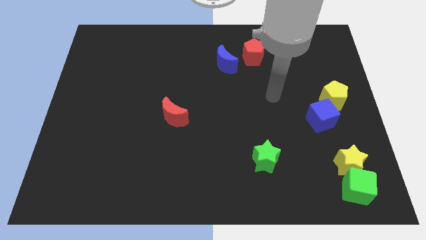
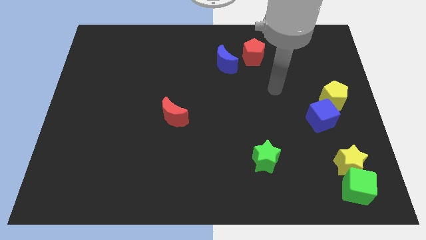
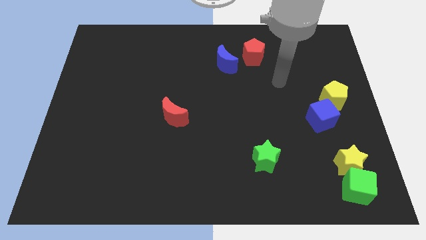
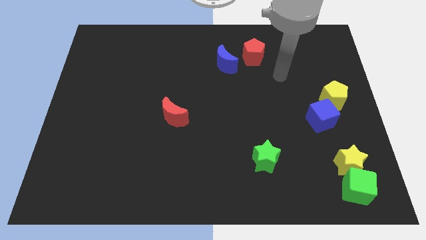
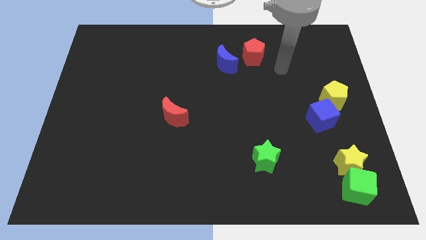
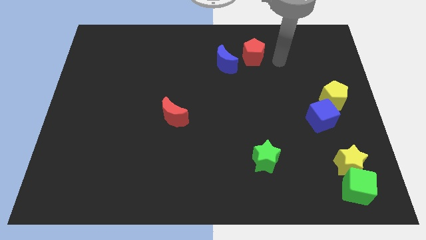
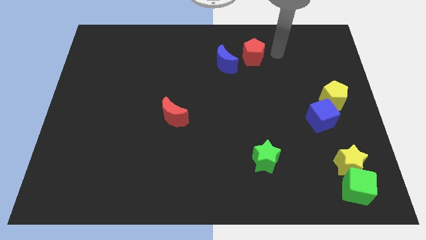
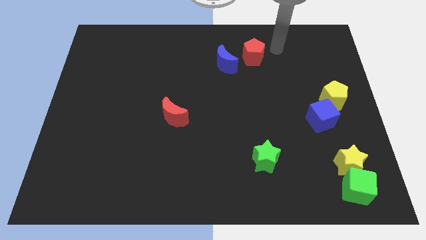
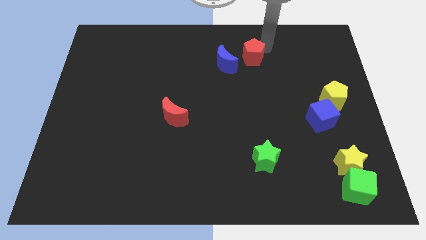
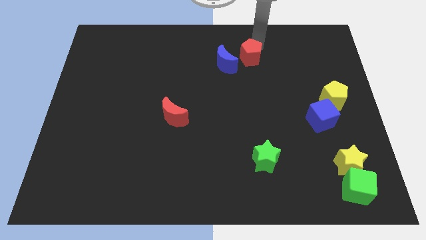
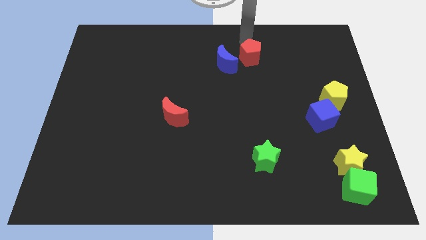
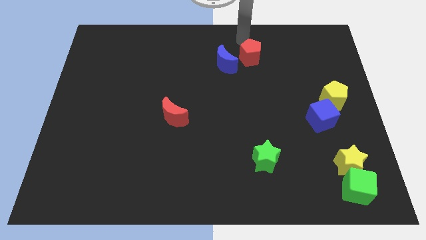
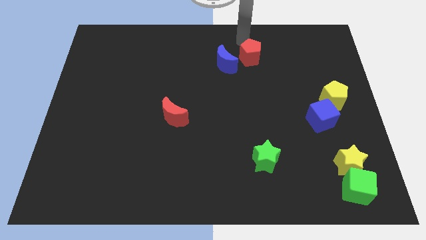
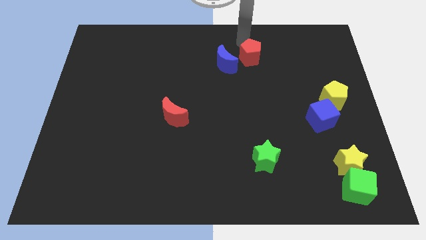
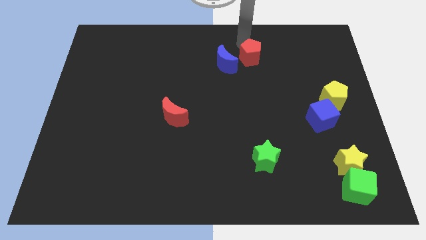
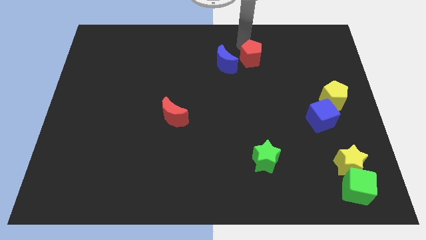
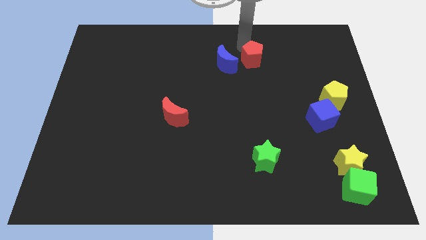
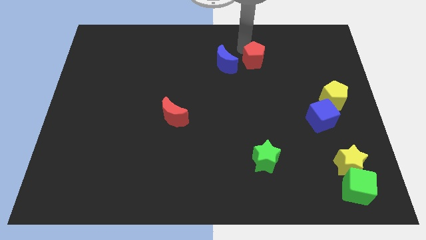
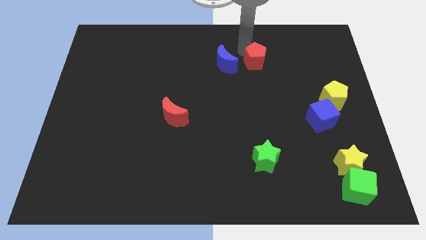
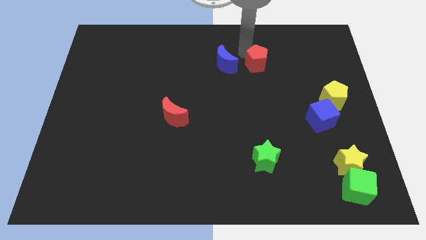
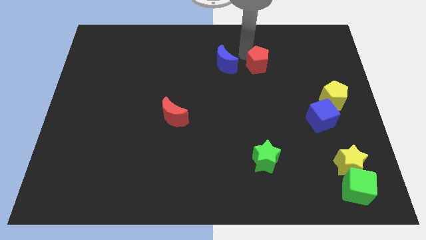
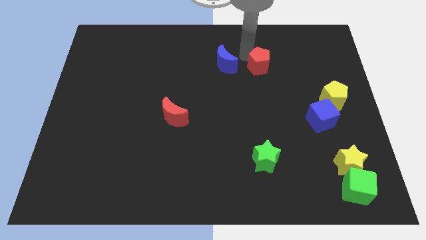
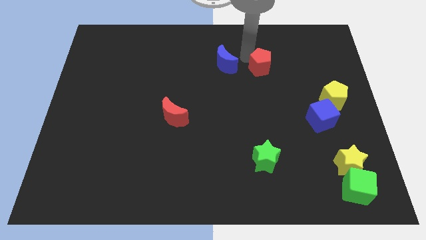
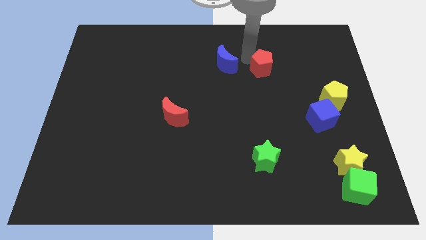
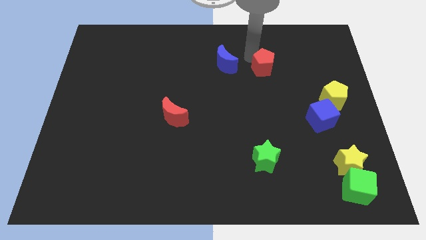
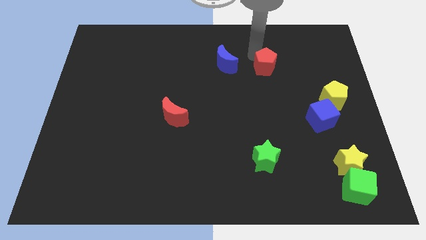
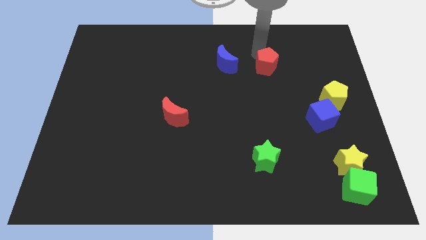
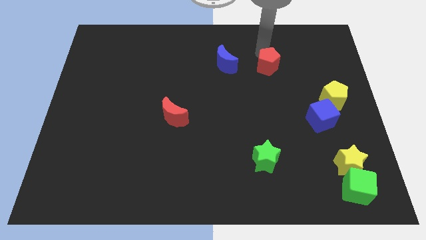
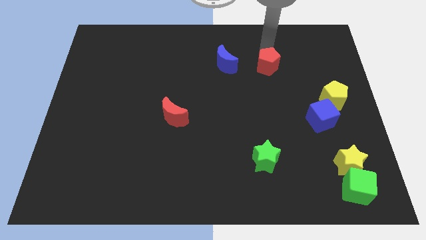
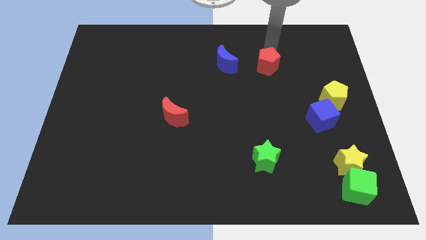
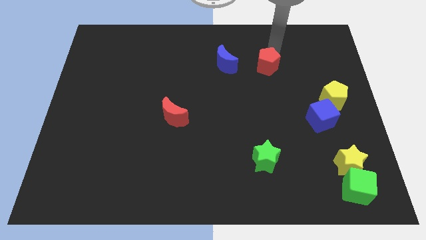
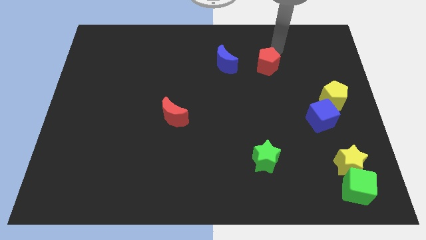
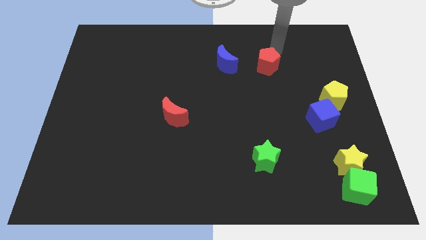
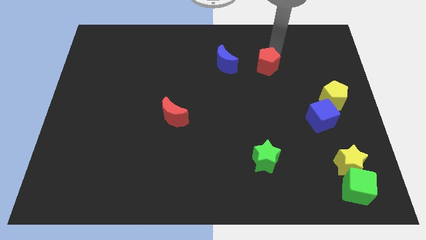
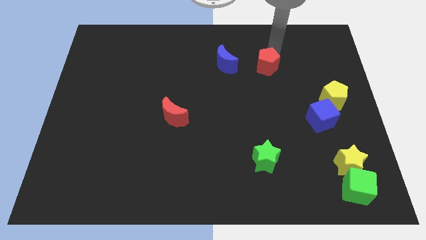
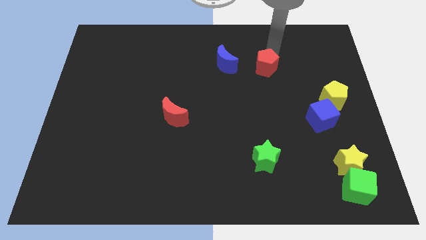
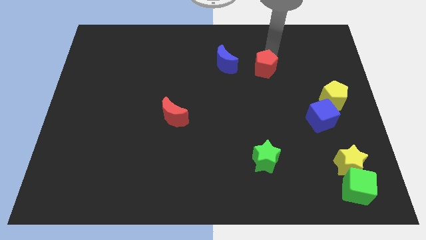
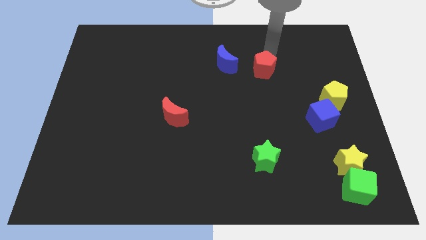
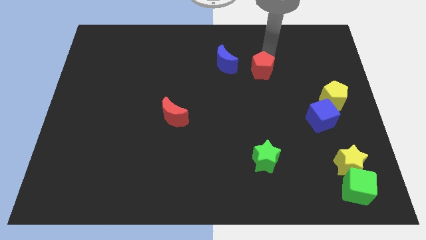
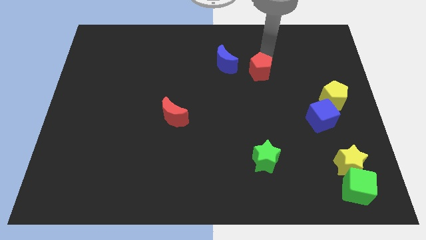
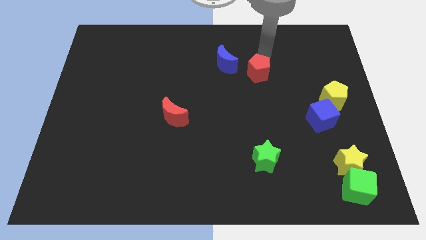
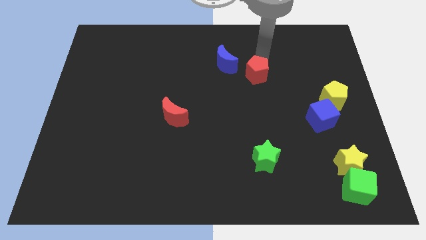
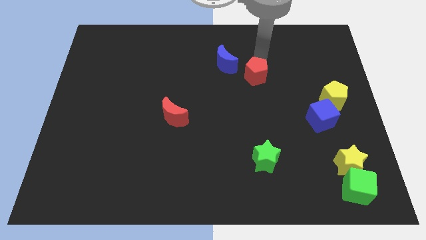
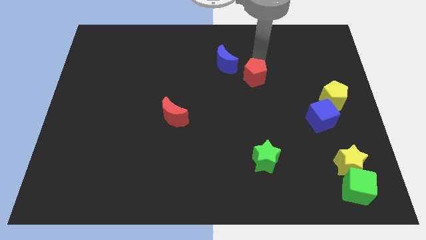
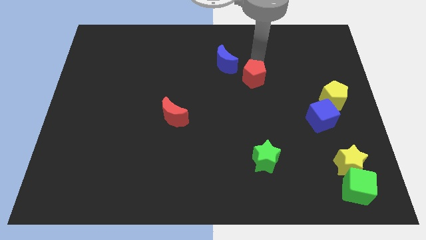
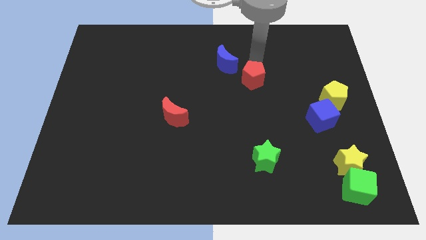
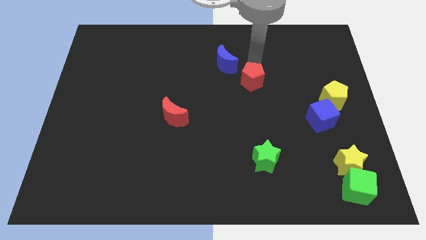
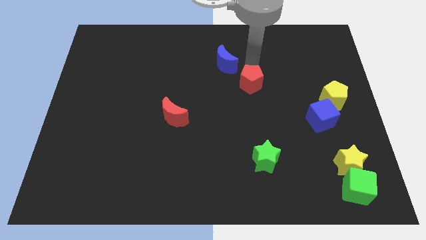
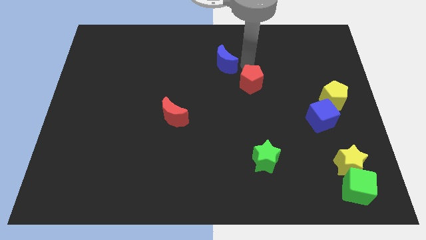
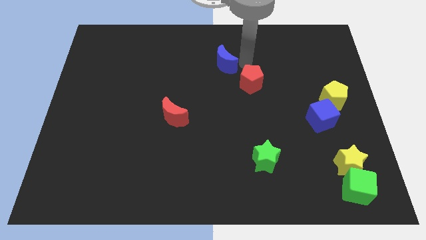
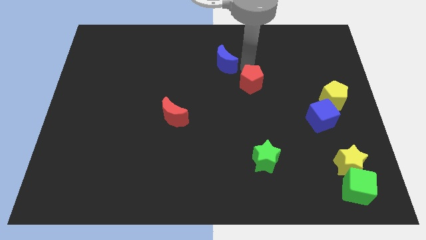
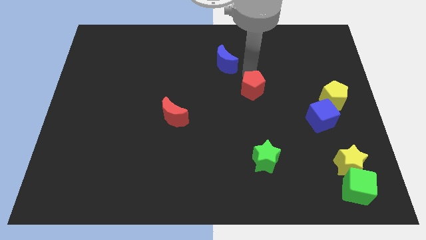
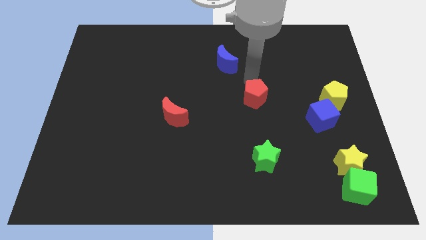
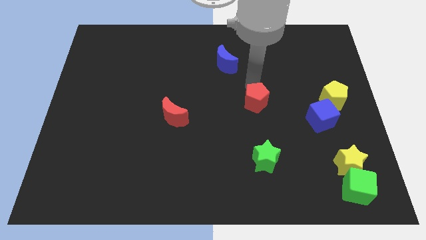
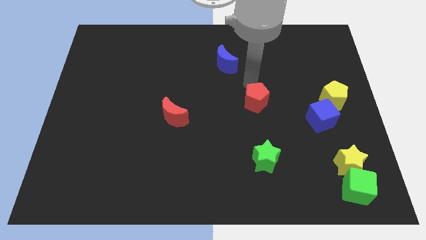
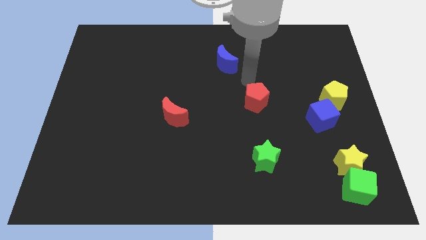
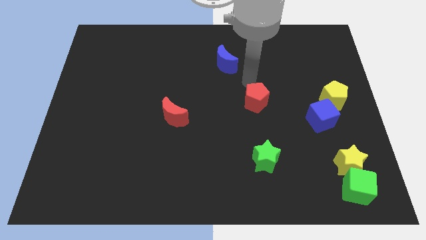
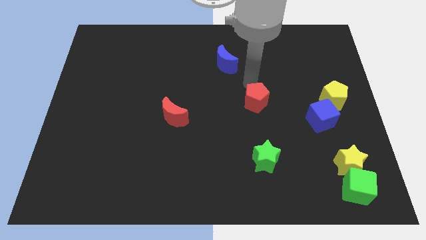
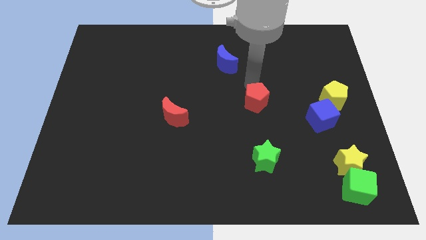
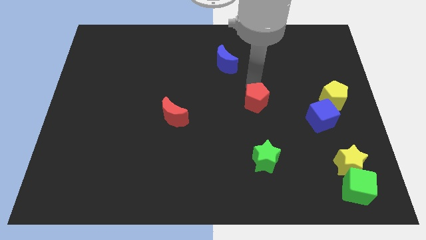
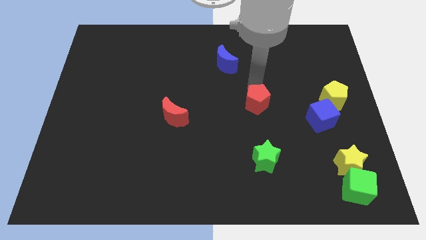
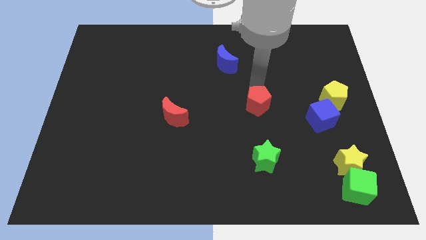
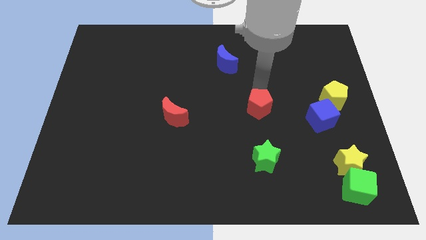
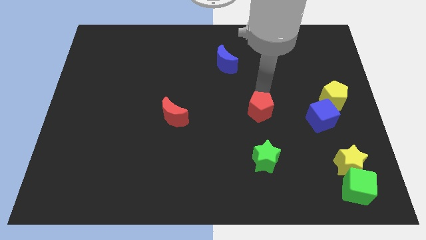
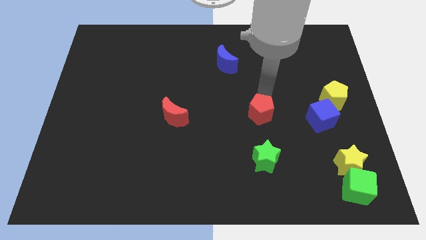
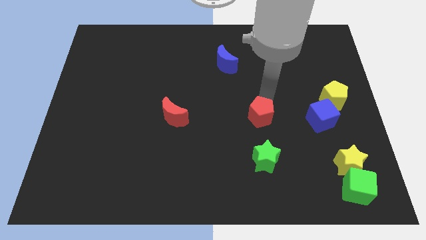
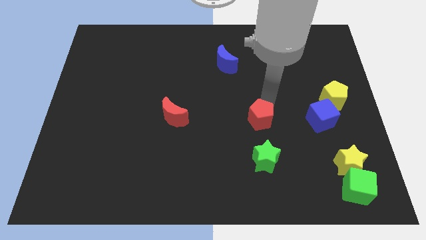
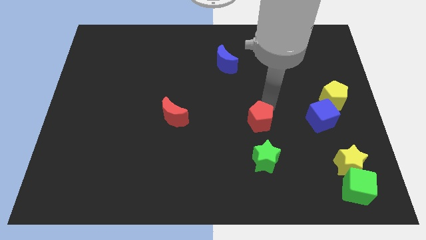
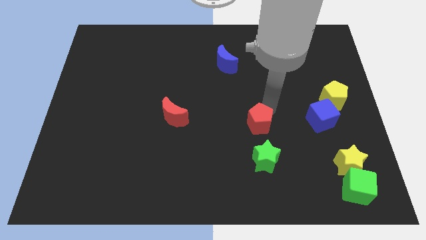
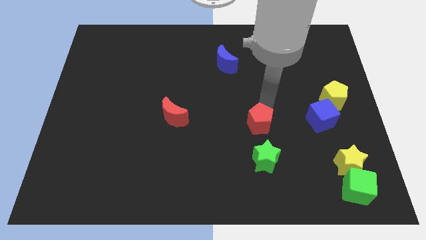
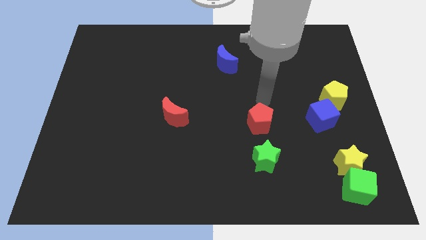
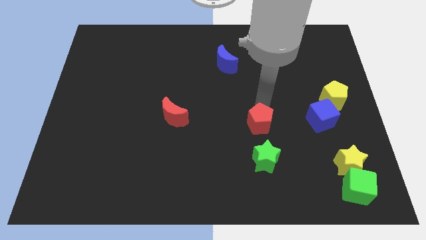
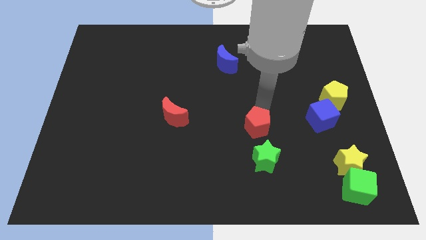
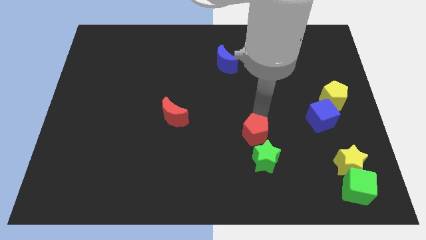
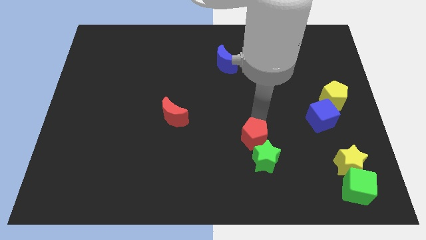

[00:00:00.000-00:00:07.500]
move the red pentagon towards the green star
